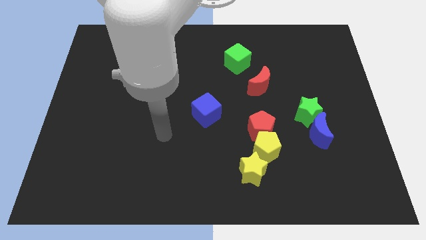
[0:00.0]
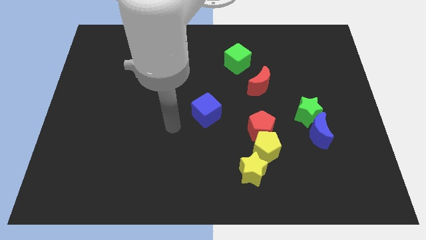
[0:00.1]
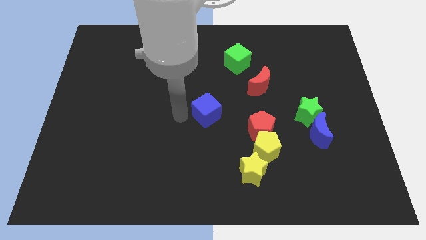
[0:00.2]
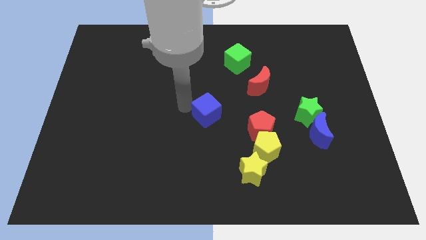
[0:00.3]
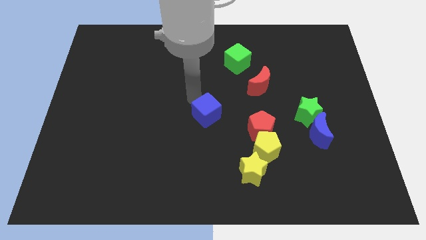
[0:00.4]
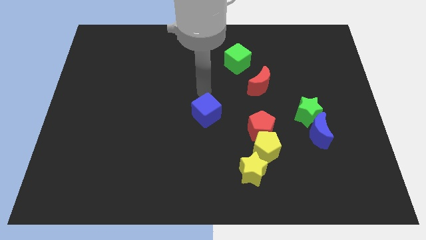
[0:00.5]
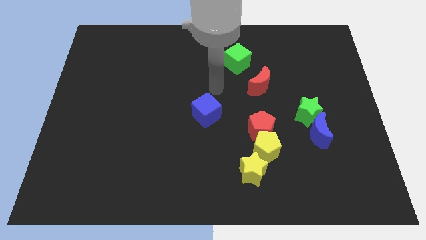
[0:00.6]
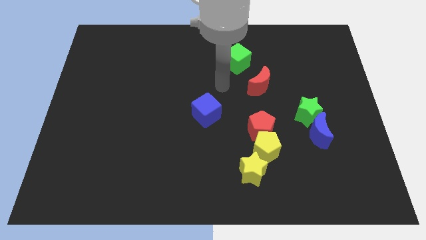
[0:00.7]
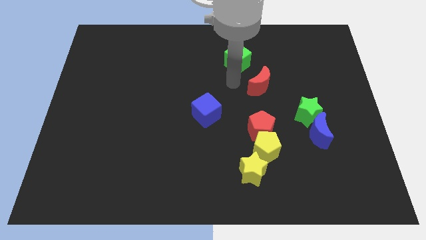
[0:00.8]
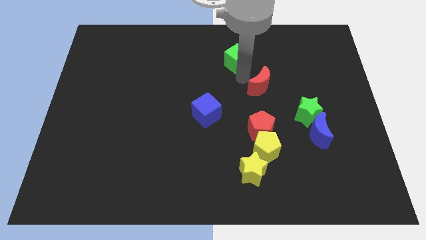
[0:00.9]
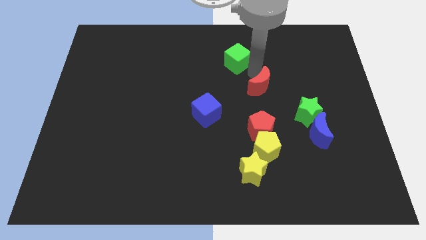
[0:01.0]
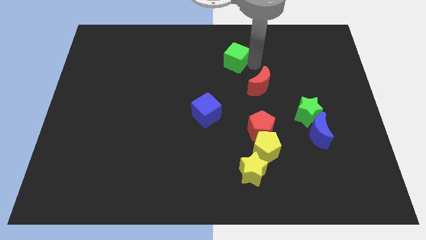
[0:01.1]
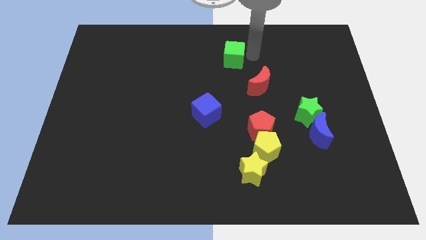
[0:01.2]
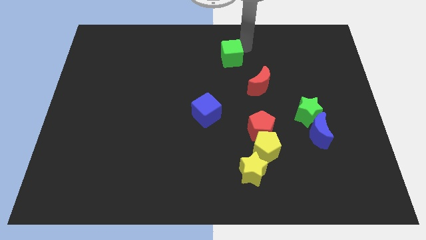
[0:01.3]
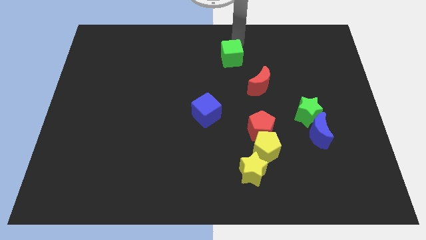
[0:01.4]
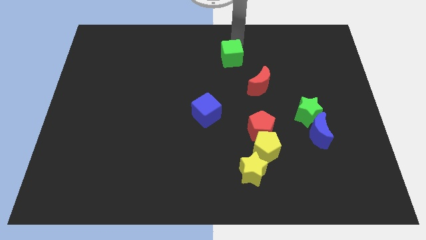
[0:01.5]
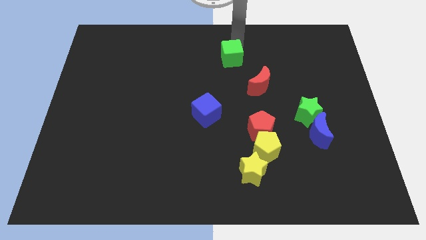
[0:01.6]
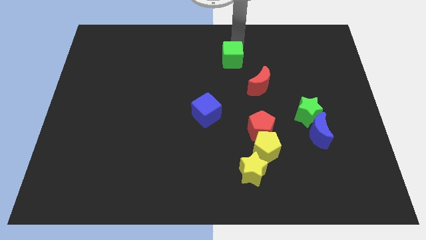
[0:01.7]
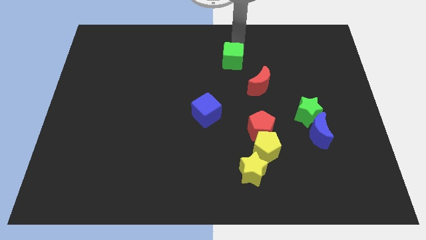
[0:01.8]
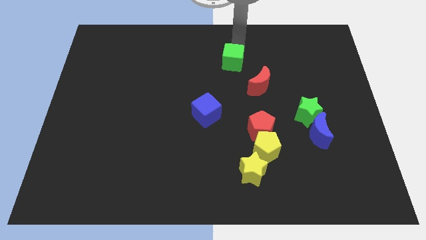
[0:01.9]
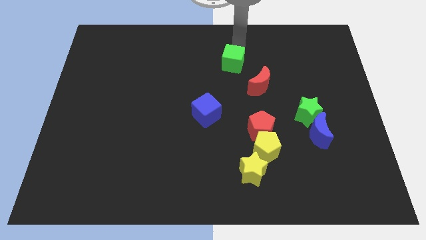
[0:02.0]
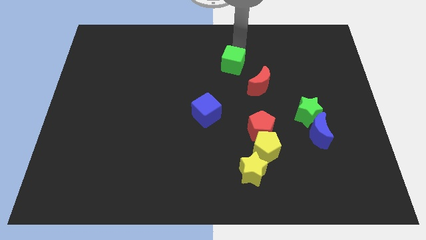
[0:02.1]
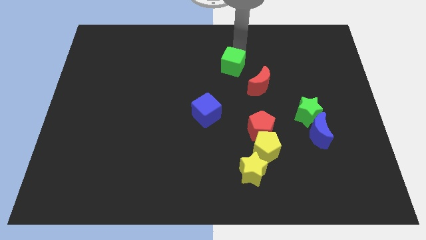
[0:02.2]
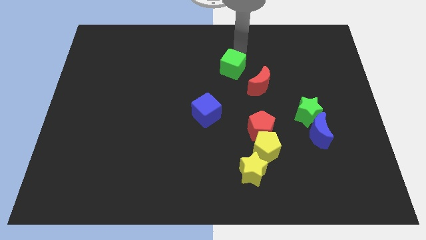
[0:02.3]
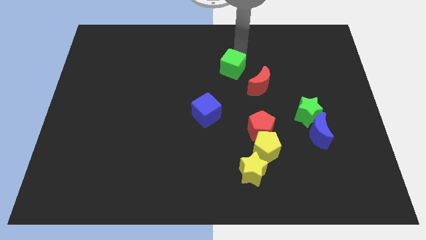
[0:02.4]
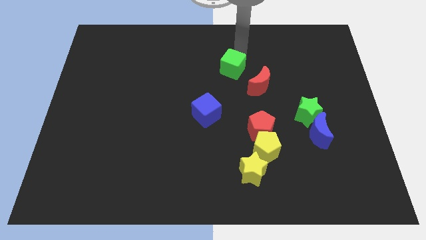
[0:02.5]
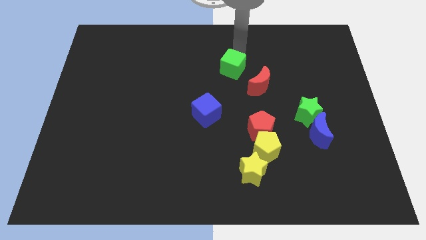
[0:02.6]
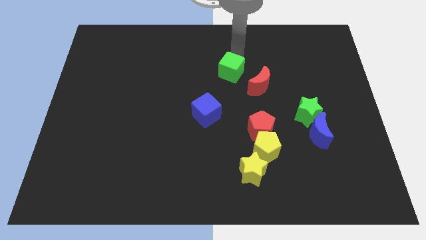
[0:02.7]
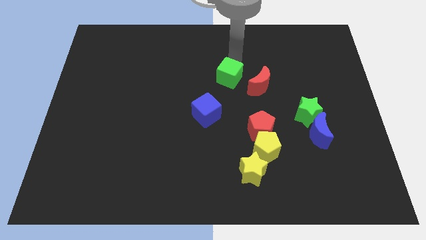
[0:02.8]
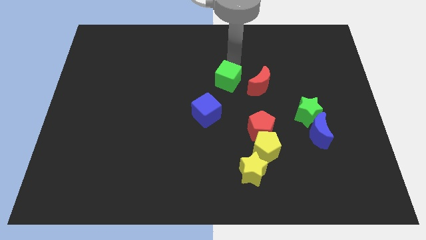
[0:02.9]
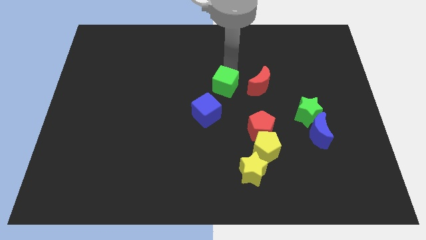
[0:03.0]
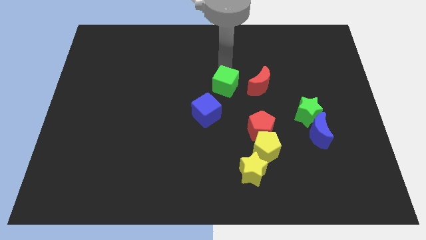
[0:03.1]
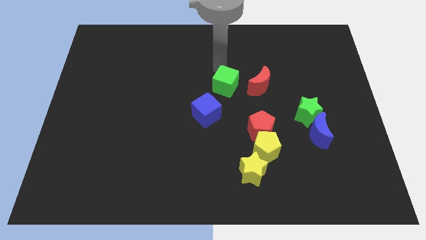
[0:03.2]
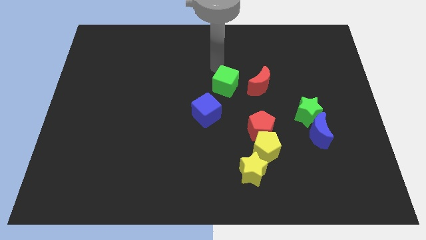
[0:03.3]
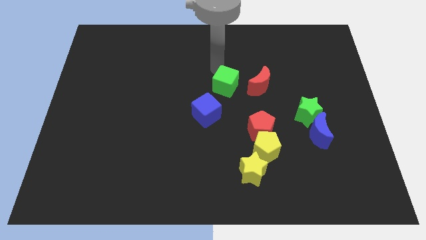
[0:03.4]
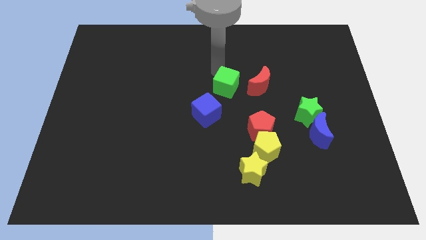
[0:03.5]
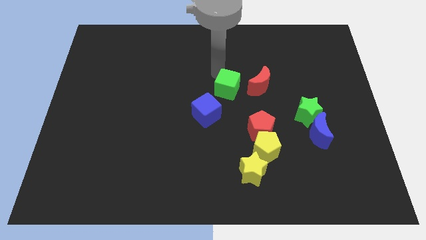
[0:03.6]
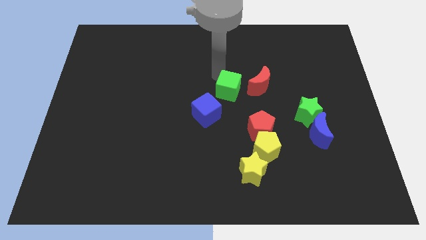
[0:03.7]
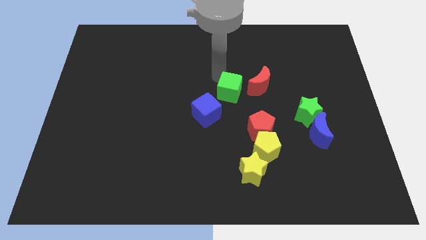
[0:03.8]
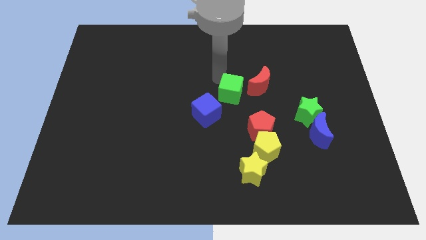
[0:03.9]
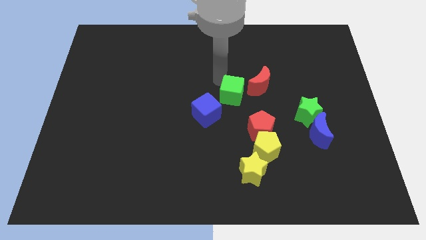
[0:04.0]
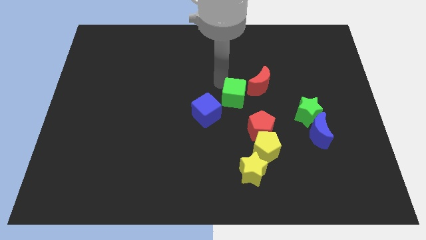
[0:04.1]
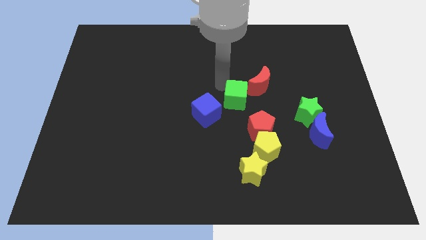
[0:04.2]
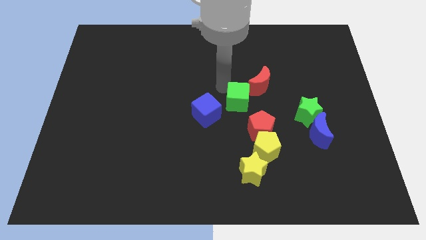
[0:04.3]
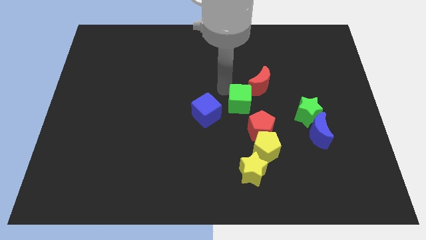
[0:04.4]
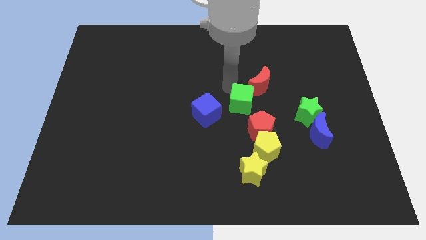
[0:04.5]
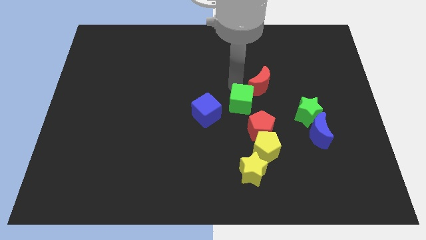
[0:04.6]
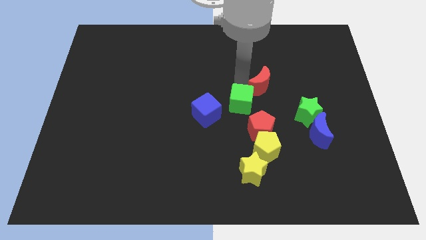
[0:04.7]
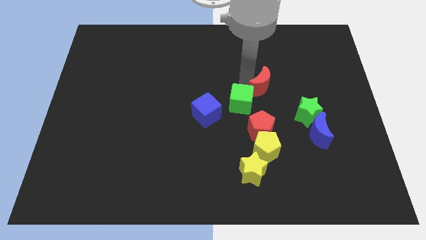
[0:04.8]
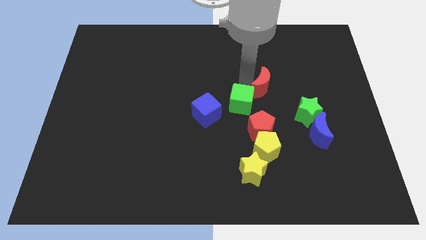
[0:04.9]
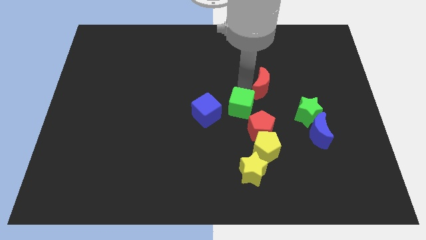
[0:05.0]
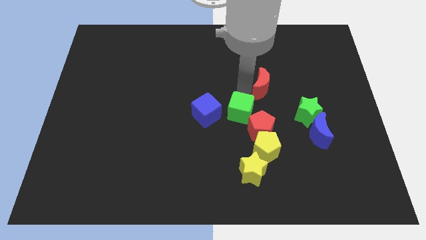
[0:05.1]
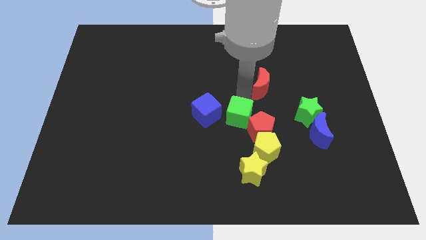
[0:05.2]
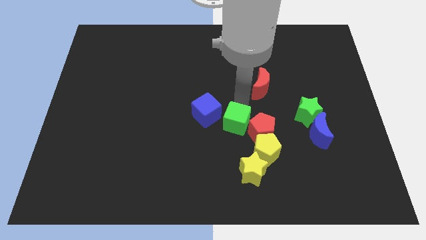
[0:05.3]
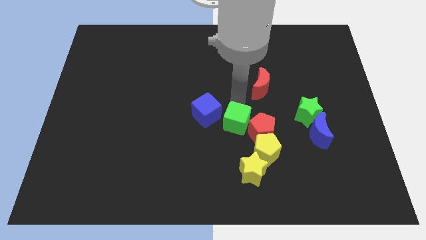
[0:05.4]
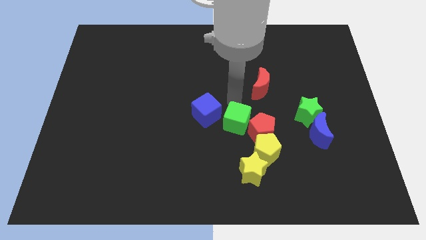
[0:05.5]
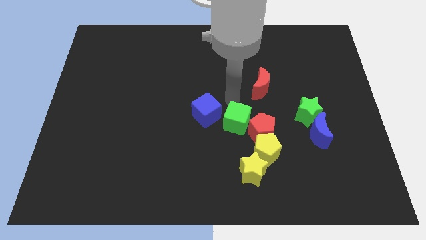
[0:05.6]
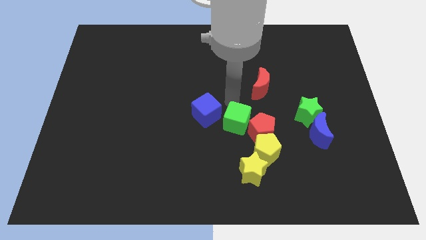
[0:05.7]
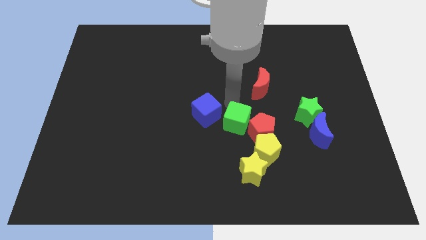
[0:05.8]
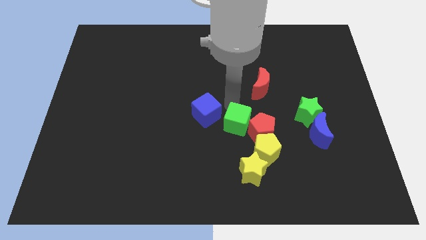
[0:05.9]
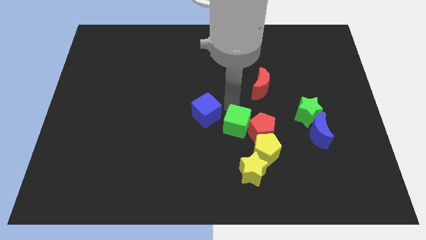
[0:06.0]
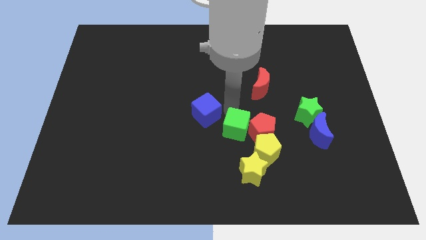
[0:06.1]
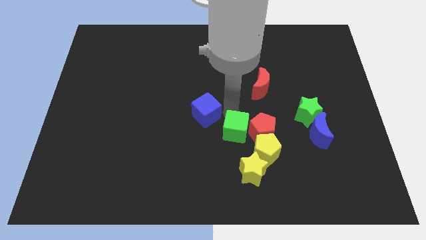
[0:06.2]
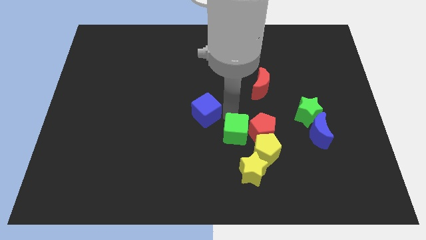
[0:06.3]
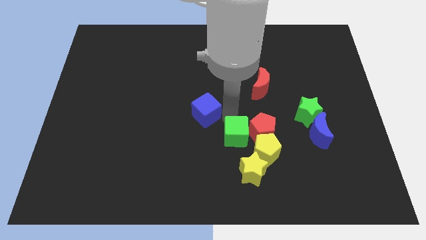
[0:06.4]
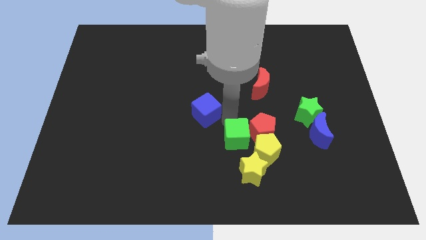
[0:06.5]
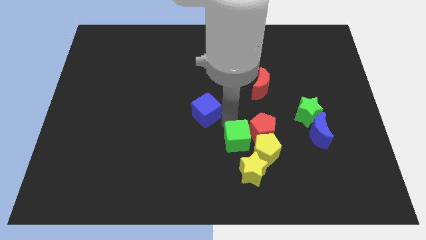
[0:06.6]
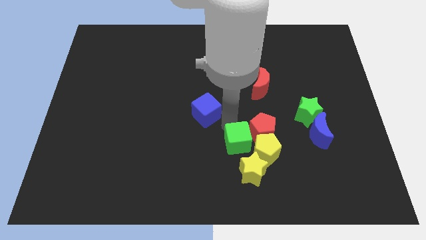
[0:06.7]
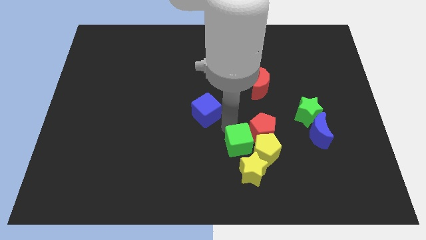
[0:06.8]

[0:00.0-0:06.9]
push the green cube to the yellow pentagon
